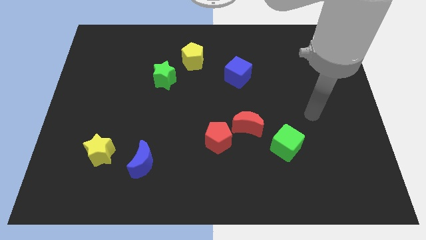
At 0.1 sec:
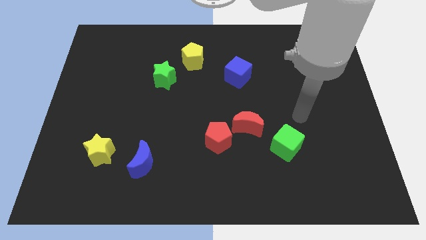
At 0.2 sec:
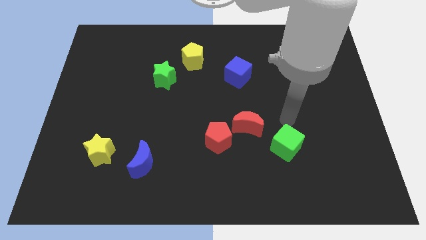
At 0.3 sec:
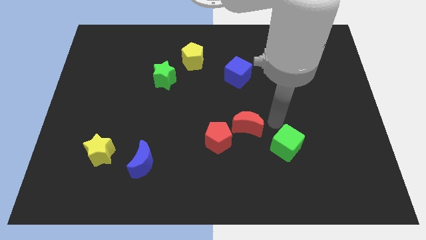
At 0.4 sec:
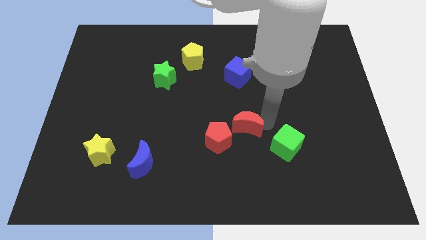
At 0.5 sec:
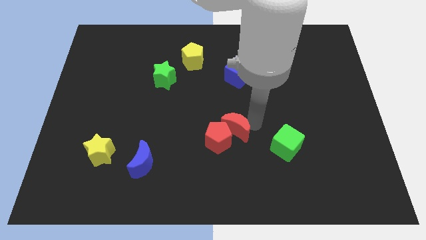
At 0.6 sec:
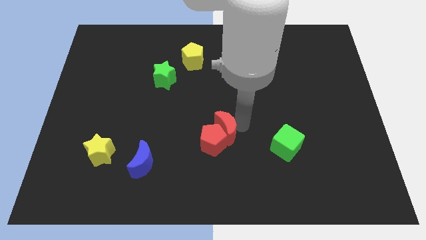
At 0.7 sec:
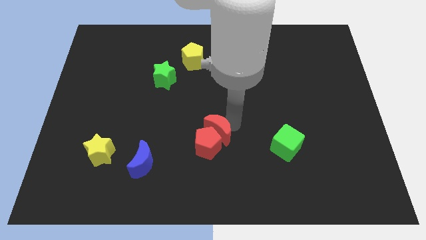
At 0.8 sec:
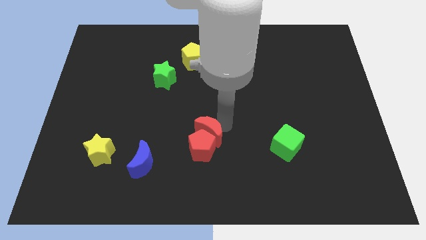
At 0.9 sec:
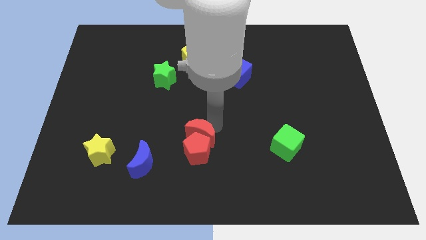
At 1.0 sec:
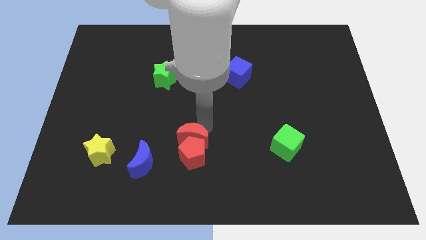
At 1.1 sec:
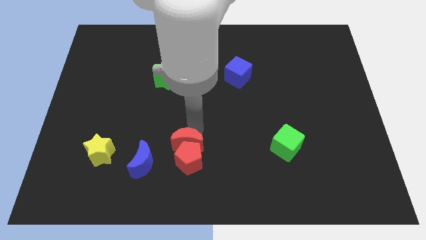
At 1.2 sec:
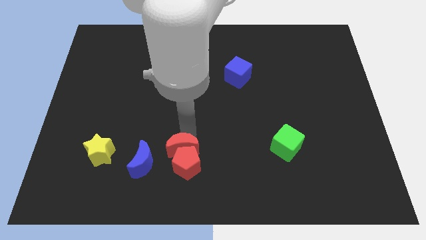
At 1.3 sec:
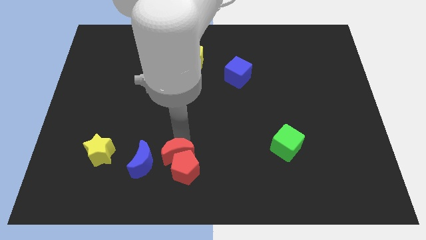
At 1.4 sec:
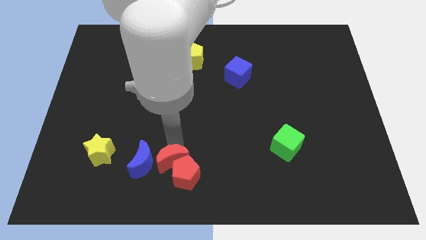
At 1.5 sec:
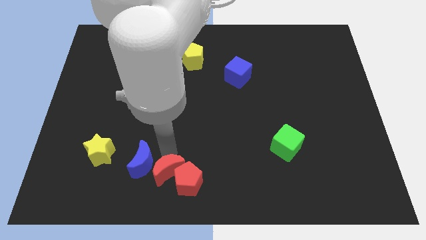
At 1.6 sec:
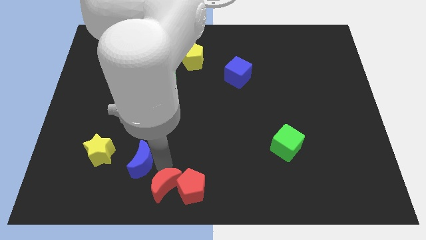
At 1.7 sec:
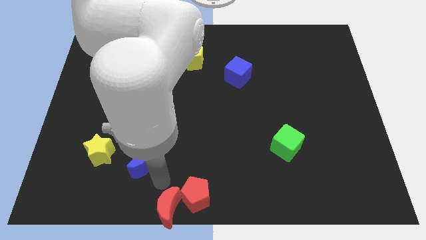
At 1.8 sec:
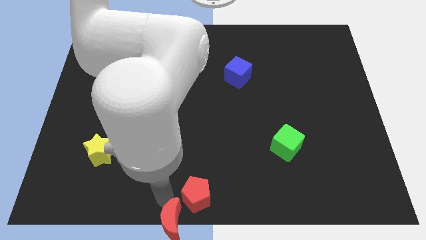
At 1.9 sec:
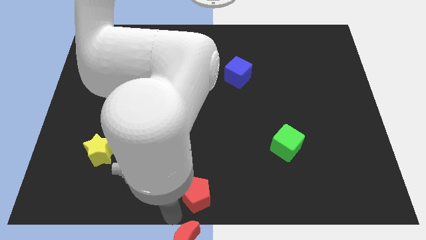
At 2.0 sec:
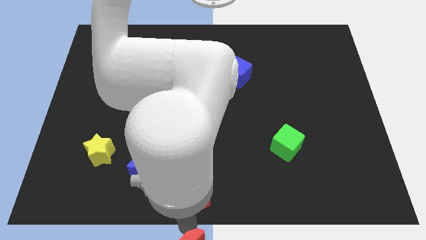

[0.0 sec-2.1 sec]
pull the red pentagon apart from the red moon

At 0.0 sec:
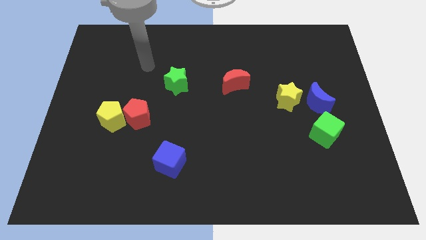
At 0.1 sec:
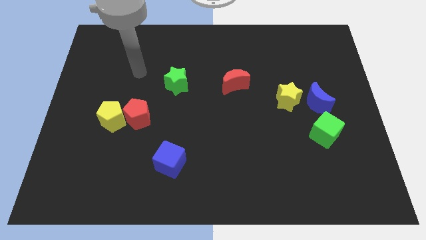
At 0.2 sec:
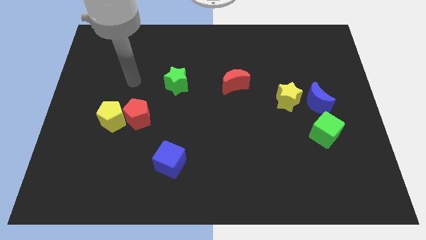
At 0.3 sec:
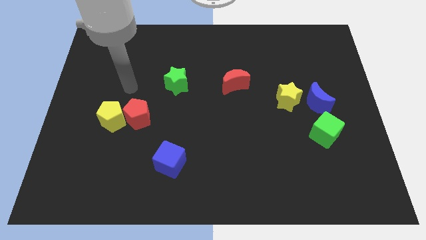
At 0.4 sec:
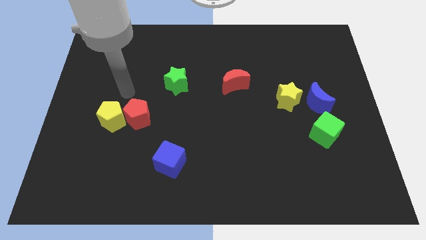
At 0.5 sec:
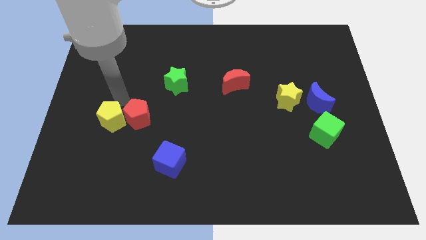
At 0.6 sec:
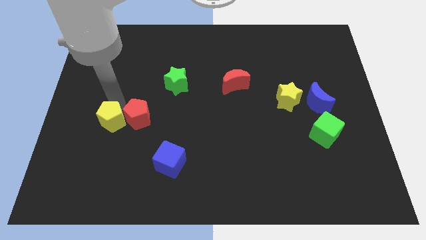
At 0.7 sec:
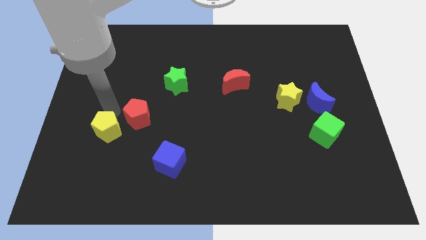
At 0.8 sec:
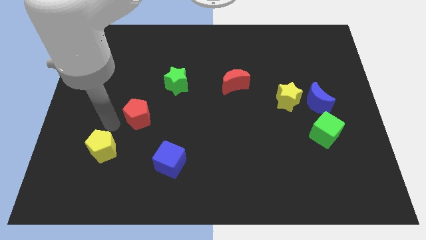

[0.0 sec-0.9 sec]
separate the red pentagon from the yellow pentagon

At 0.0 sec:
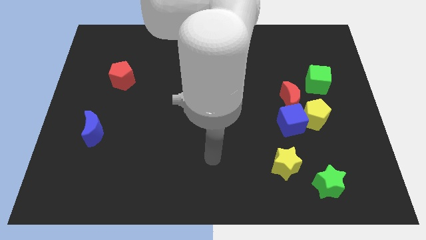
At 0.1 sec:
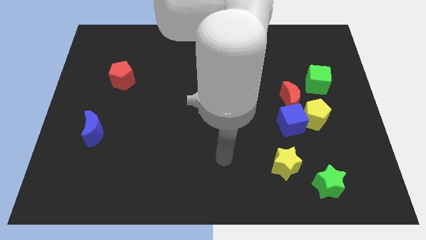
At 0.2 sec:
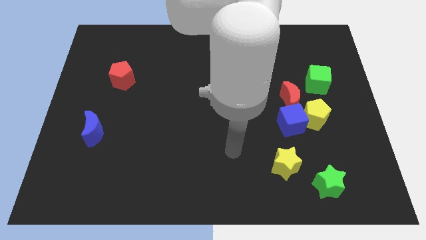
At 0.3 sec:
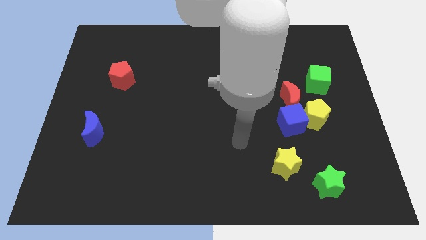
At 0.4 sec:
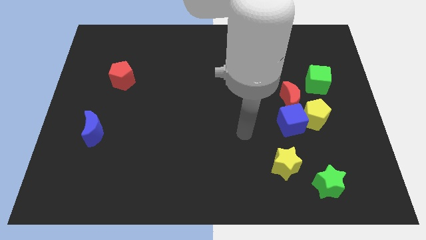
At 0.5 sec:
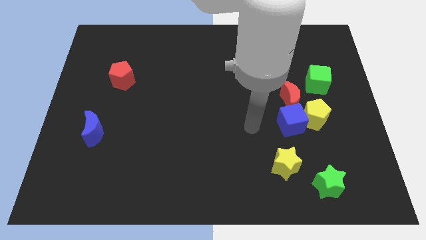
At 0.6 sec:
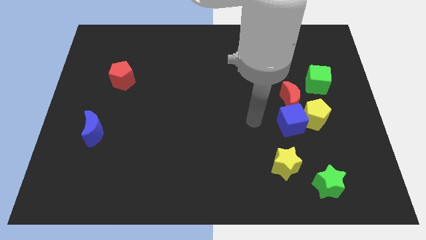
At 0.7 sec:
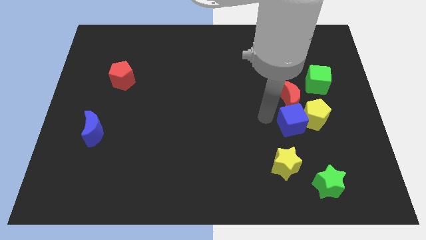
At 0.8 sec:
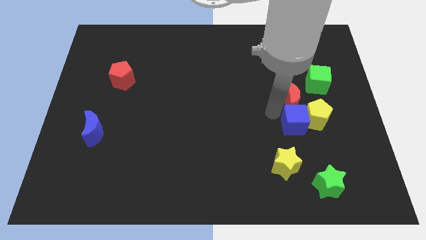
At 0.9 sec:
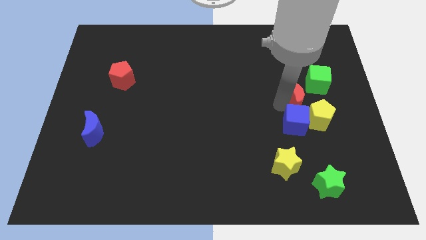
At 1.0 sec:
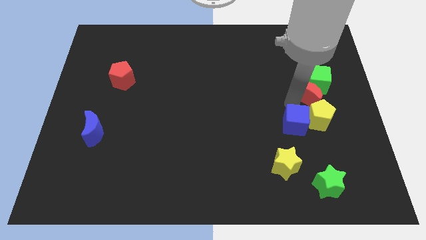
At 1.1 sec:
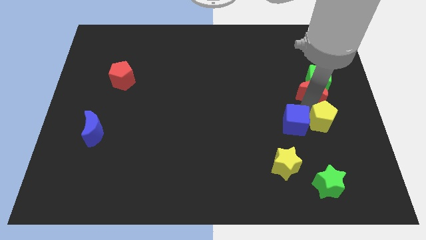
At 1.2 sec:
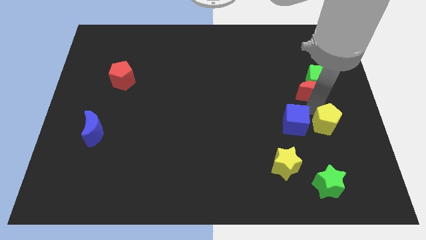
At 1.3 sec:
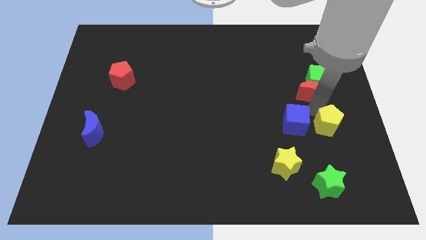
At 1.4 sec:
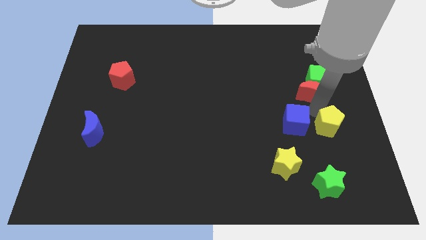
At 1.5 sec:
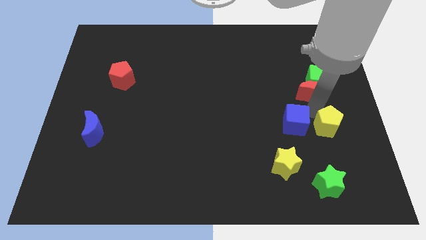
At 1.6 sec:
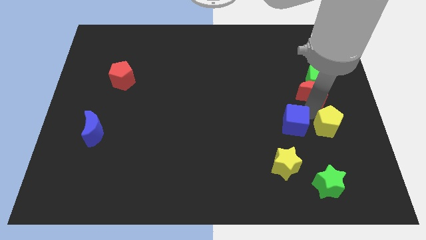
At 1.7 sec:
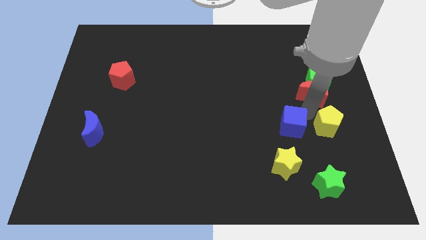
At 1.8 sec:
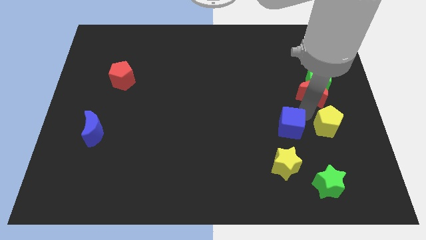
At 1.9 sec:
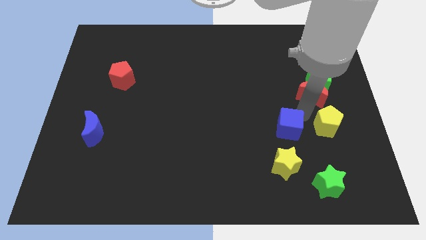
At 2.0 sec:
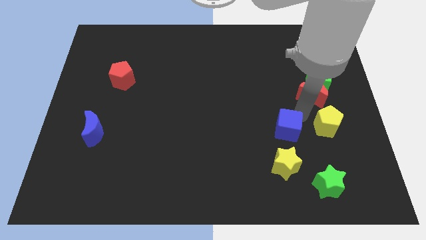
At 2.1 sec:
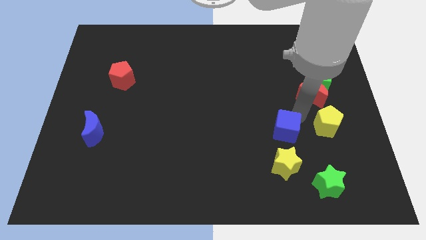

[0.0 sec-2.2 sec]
move the blue cube away from the yellow pentagon and red moon

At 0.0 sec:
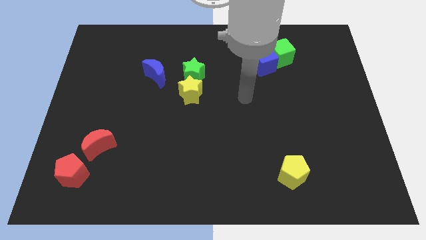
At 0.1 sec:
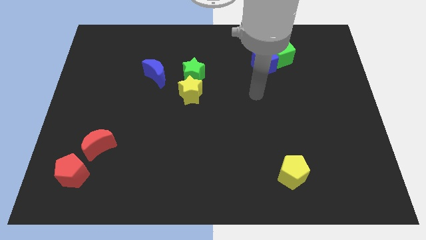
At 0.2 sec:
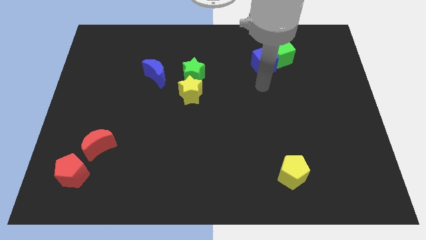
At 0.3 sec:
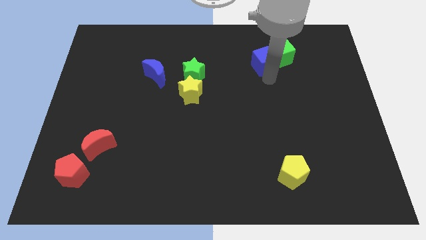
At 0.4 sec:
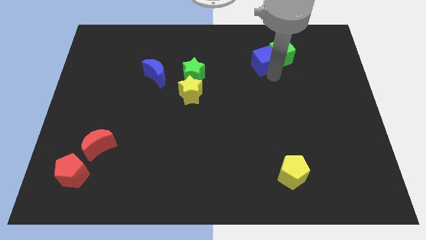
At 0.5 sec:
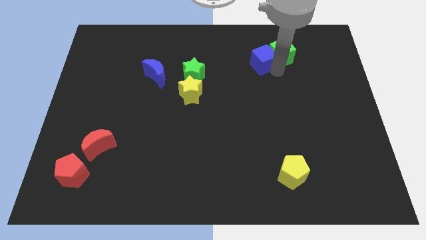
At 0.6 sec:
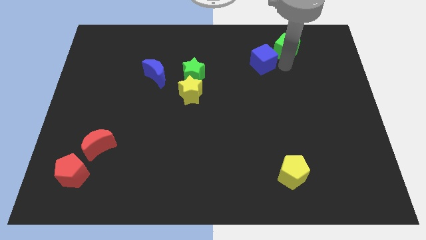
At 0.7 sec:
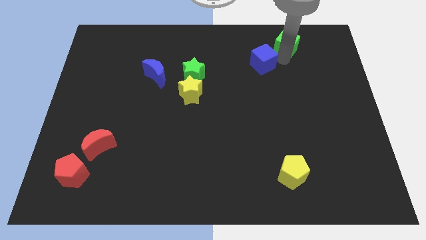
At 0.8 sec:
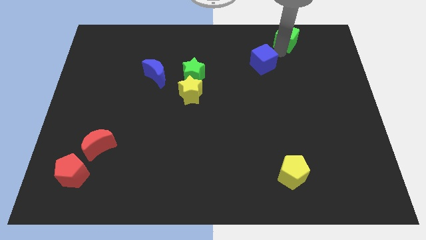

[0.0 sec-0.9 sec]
separate the blue cube from the green cube

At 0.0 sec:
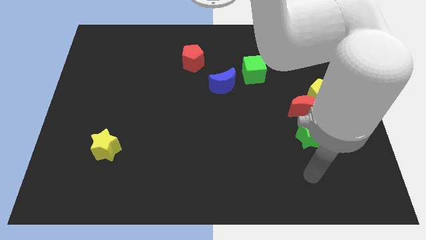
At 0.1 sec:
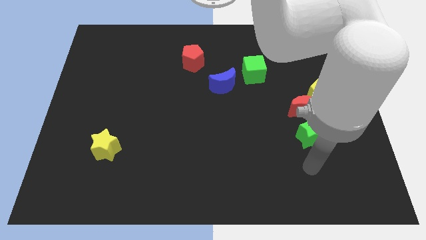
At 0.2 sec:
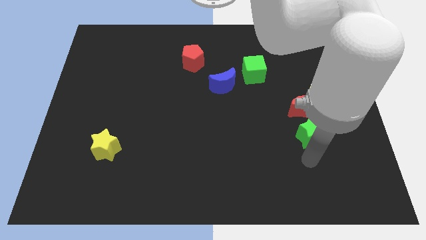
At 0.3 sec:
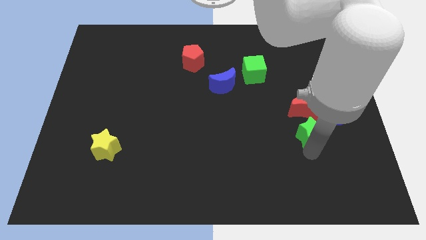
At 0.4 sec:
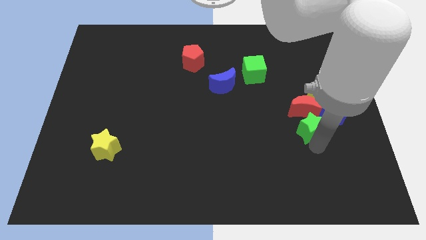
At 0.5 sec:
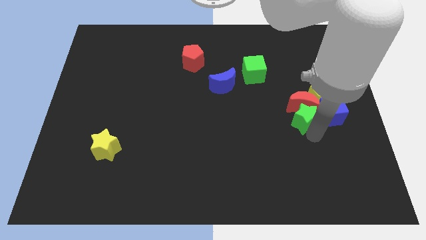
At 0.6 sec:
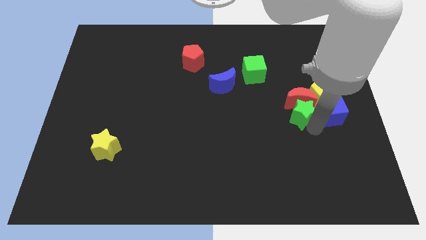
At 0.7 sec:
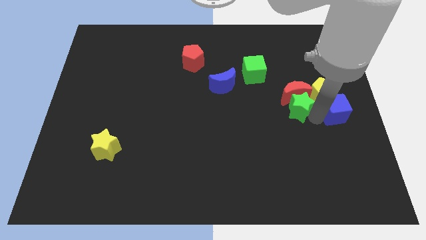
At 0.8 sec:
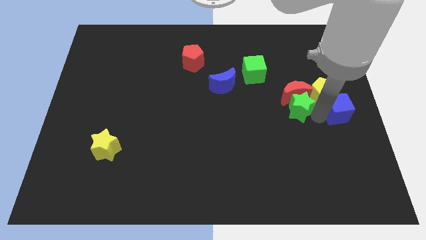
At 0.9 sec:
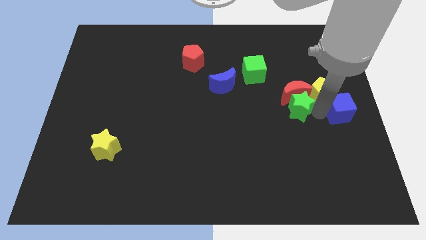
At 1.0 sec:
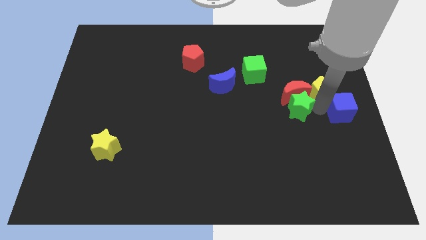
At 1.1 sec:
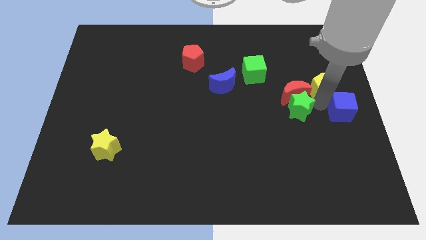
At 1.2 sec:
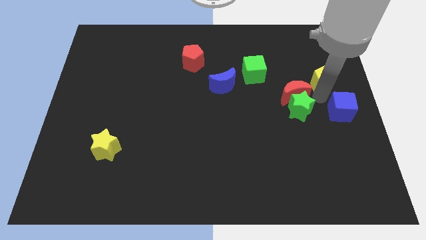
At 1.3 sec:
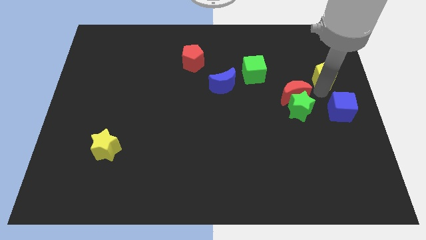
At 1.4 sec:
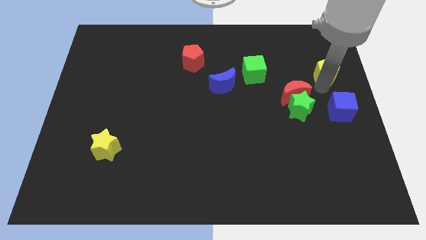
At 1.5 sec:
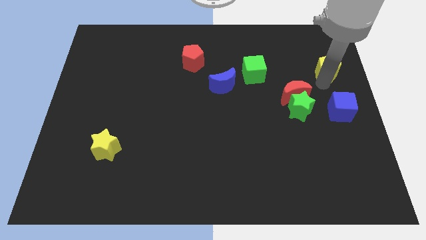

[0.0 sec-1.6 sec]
separate the yellow pentagon from the blue cube and red moon

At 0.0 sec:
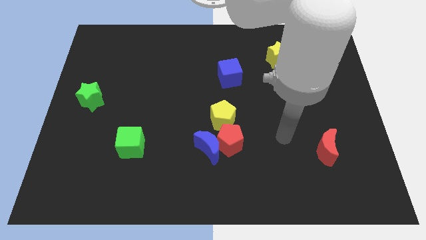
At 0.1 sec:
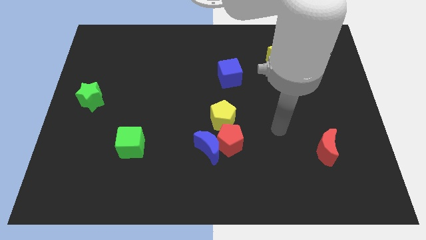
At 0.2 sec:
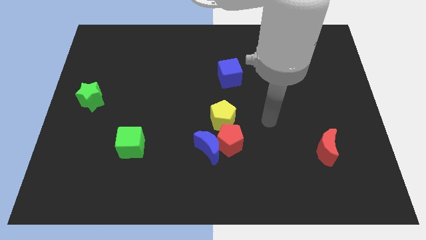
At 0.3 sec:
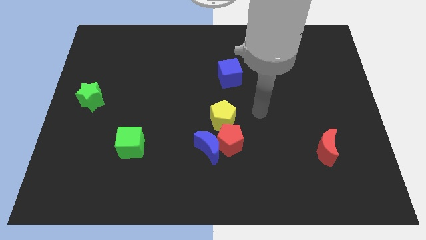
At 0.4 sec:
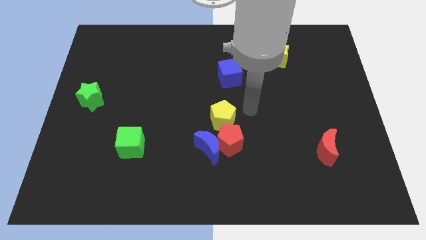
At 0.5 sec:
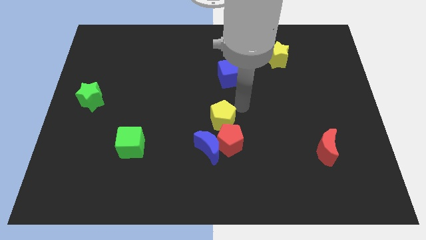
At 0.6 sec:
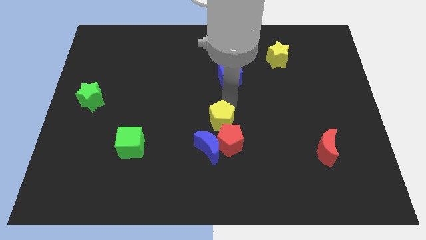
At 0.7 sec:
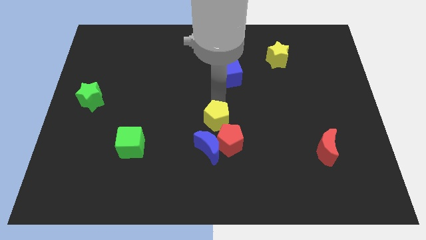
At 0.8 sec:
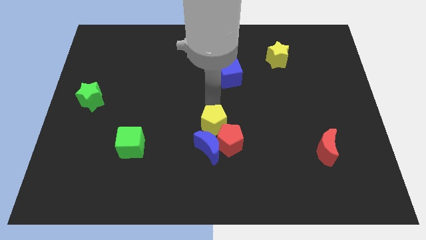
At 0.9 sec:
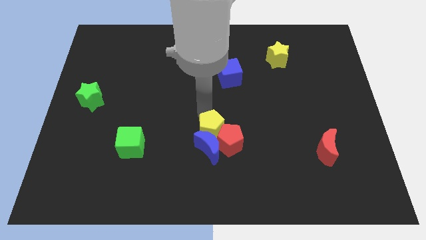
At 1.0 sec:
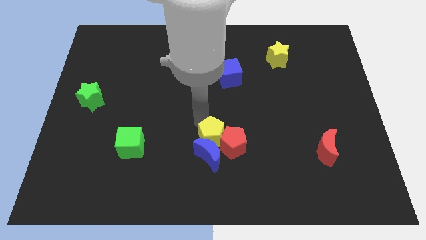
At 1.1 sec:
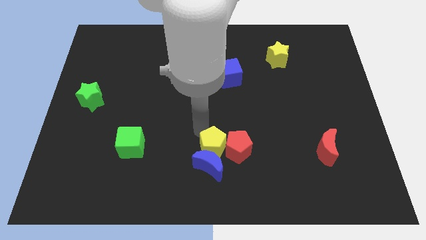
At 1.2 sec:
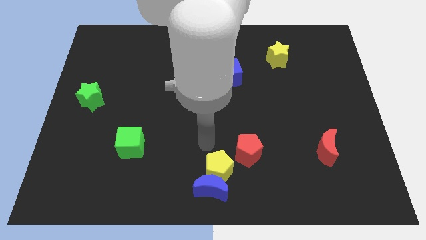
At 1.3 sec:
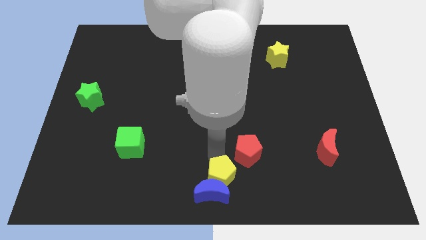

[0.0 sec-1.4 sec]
pull the red pentagon apart from the blue moon and yellow pentagon

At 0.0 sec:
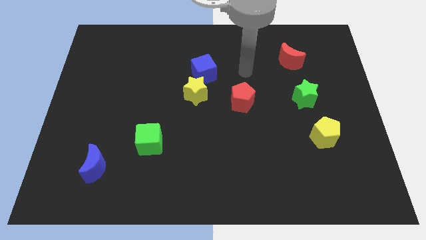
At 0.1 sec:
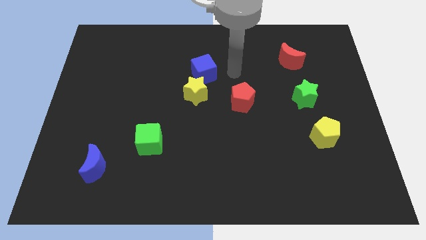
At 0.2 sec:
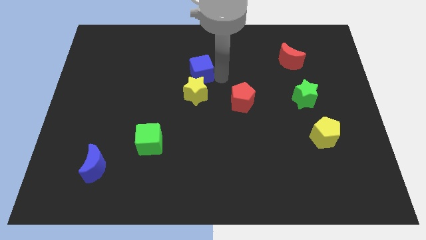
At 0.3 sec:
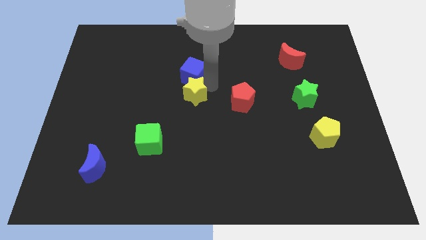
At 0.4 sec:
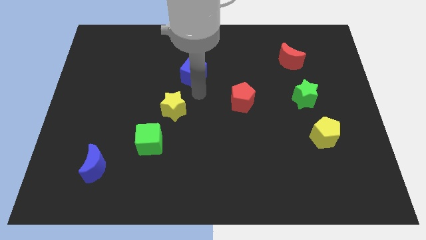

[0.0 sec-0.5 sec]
separate the blue cube from the yellow star
